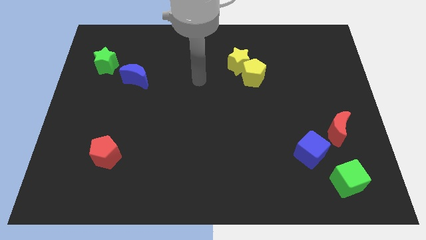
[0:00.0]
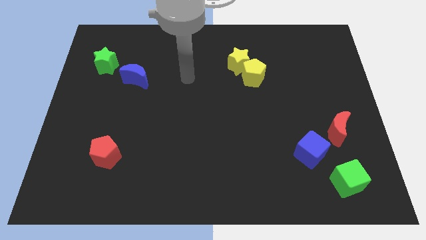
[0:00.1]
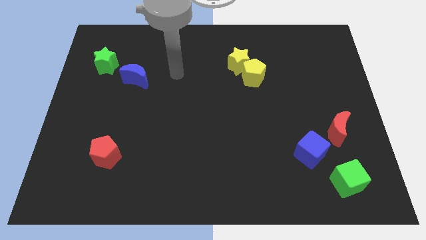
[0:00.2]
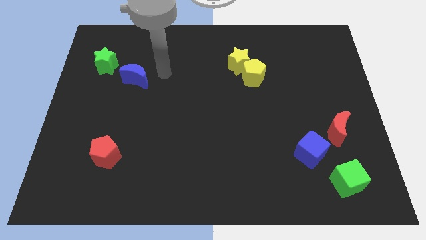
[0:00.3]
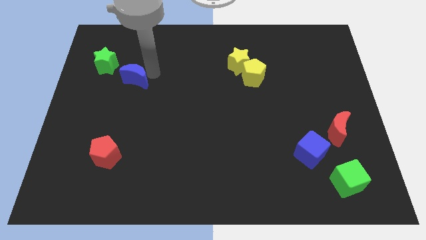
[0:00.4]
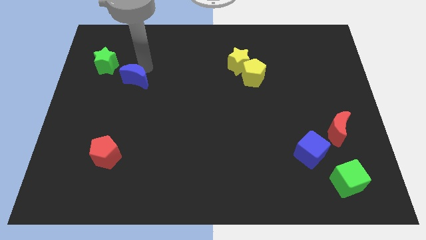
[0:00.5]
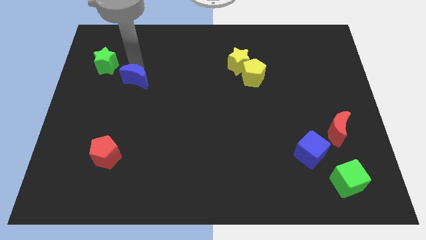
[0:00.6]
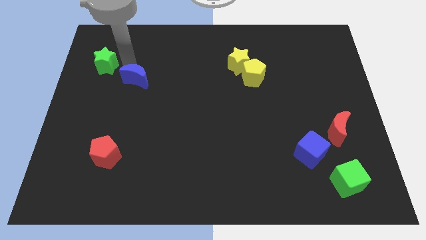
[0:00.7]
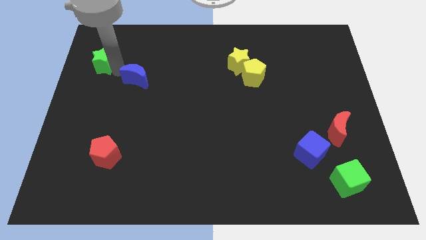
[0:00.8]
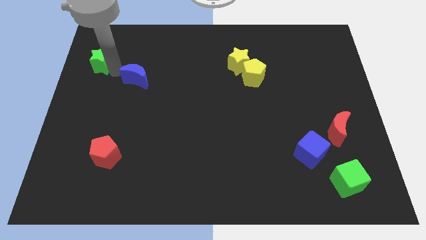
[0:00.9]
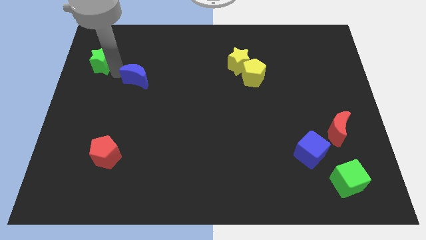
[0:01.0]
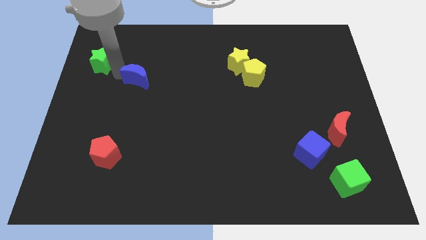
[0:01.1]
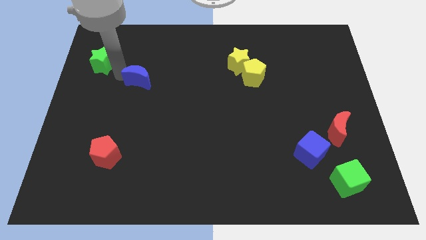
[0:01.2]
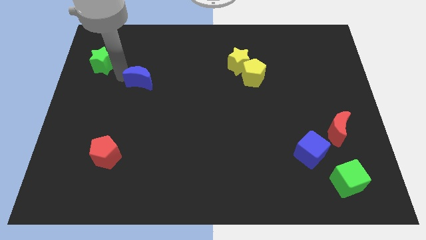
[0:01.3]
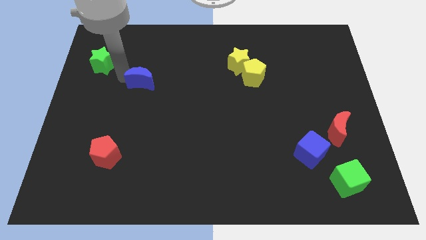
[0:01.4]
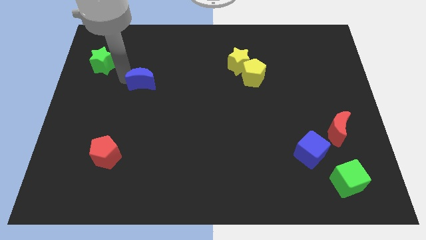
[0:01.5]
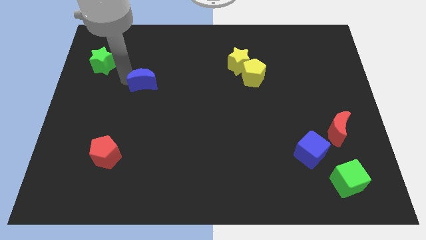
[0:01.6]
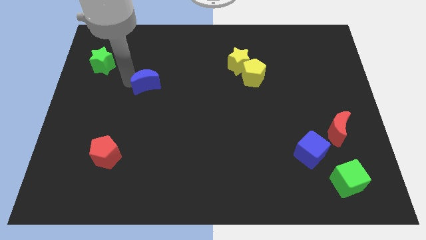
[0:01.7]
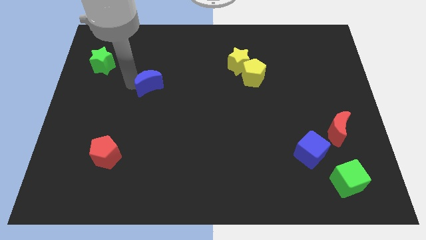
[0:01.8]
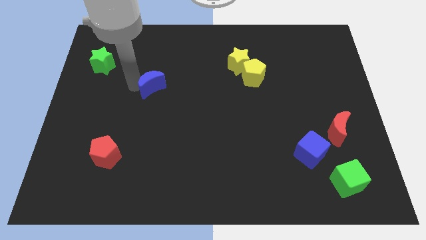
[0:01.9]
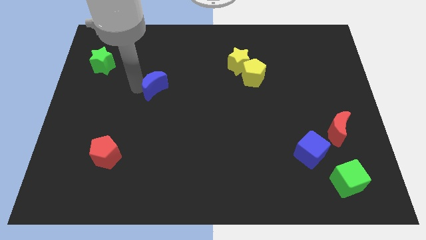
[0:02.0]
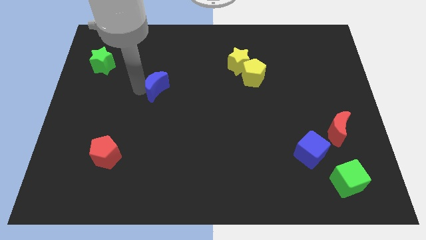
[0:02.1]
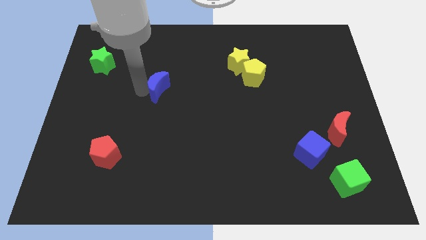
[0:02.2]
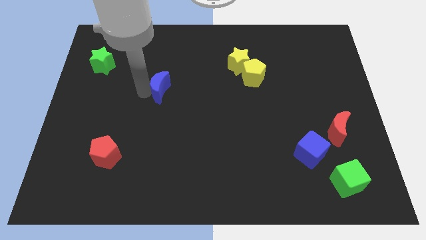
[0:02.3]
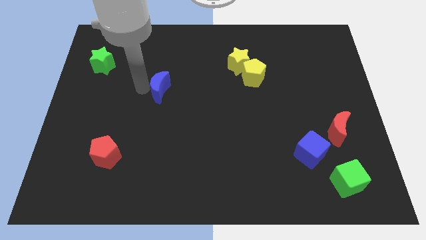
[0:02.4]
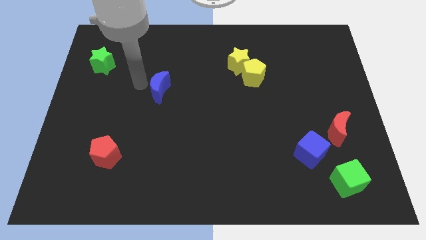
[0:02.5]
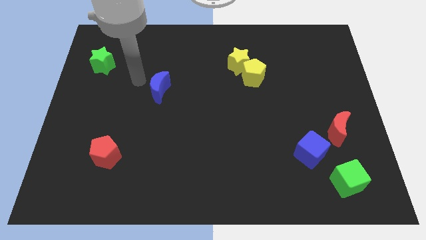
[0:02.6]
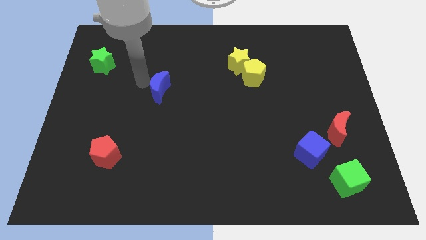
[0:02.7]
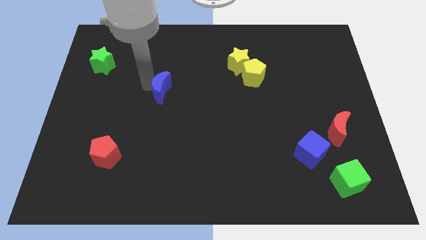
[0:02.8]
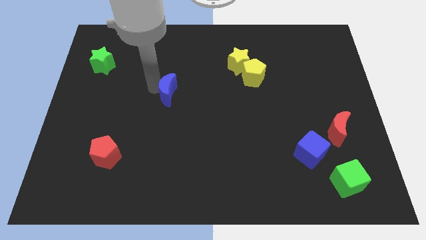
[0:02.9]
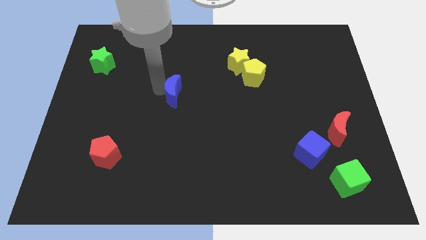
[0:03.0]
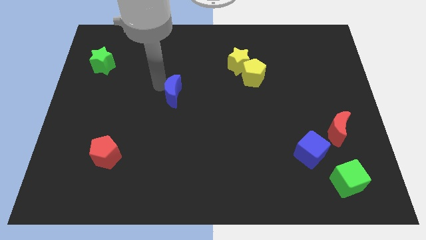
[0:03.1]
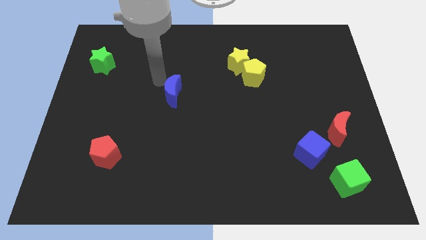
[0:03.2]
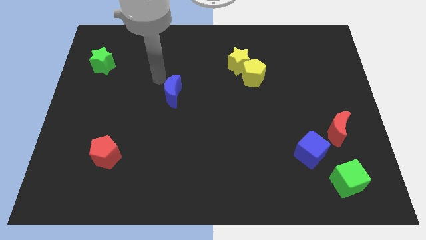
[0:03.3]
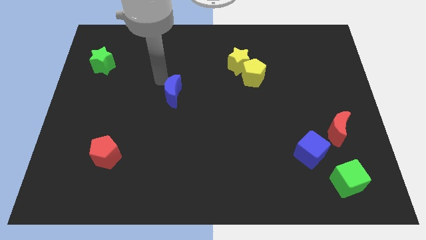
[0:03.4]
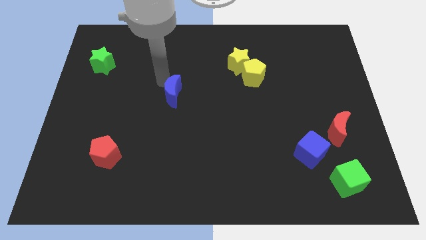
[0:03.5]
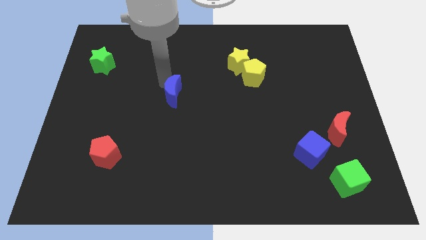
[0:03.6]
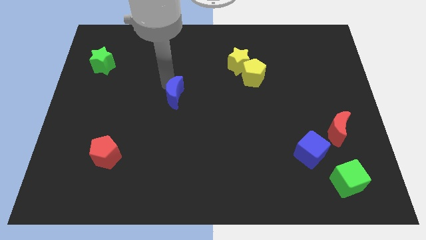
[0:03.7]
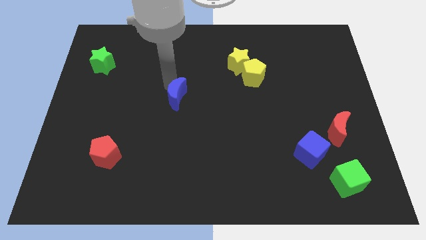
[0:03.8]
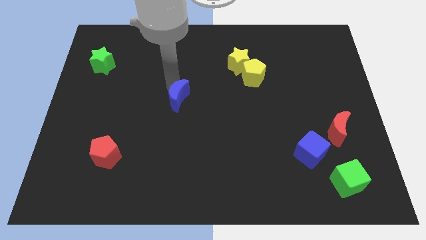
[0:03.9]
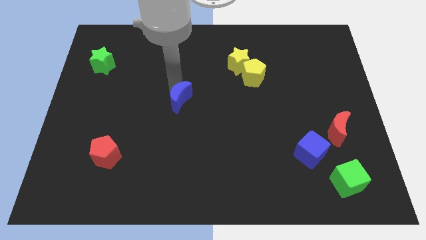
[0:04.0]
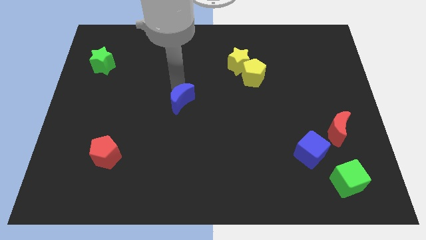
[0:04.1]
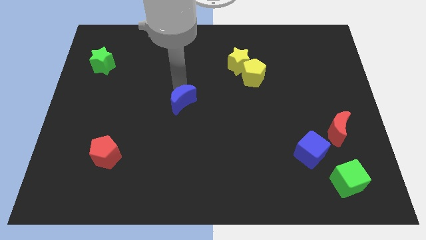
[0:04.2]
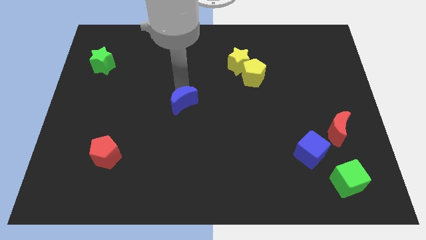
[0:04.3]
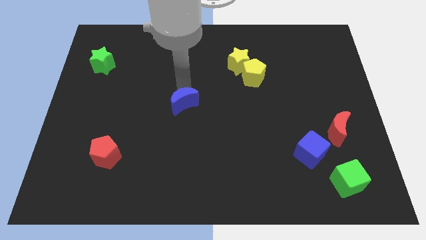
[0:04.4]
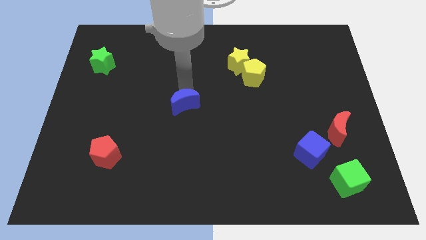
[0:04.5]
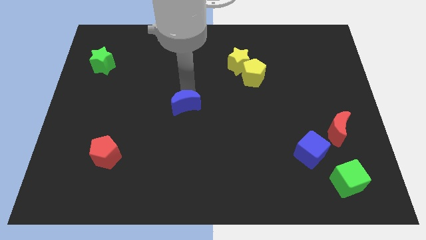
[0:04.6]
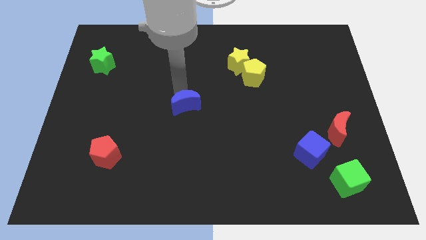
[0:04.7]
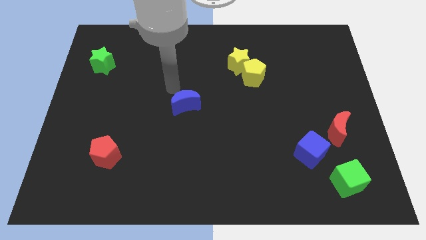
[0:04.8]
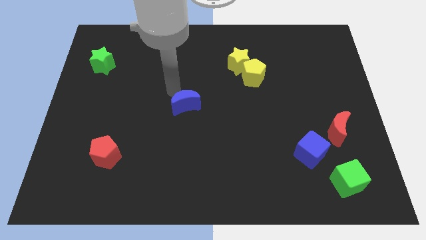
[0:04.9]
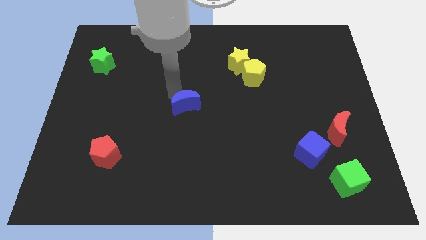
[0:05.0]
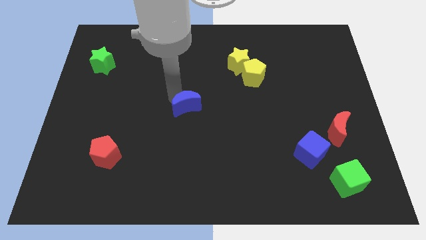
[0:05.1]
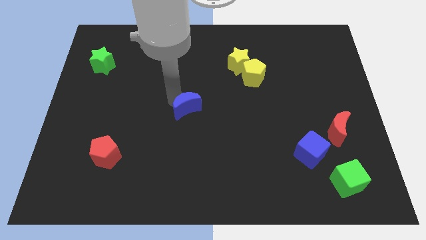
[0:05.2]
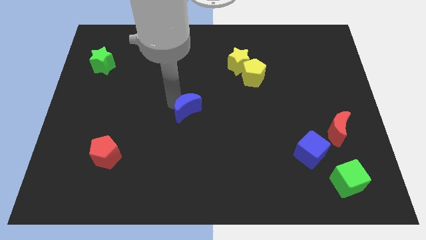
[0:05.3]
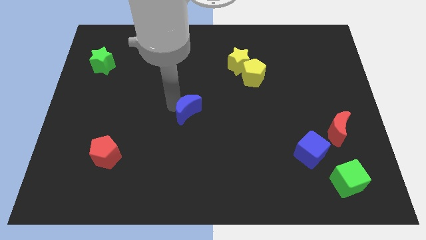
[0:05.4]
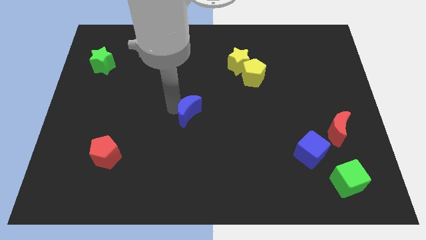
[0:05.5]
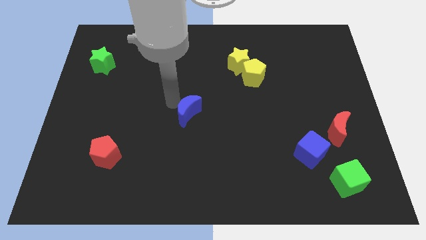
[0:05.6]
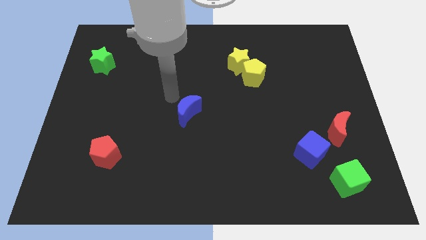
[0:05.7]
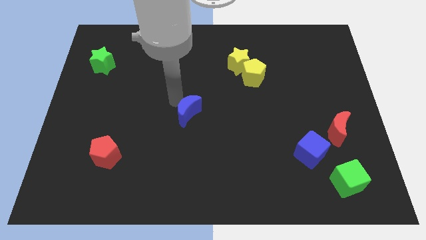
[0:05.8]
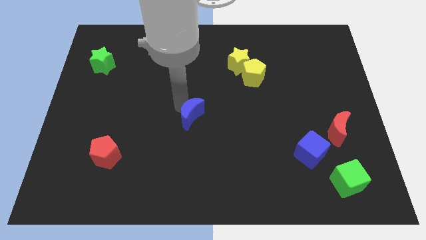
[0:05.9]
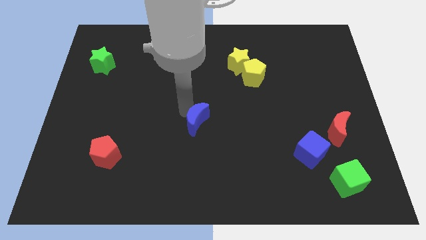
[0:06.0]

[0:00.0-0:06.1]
push the blue moon downwards and then right

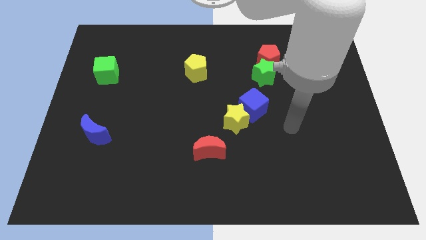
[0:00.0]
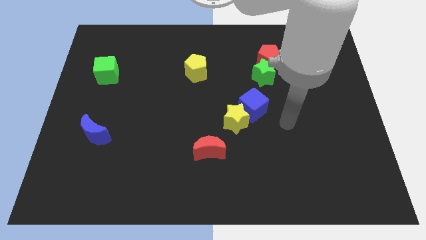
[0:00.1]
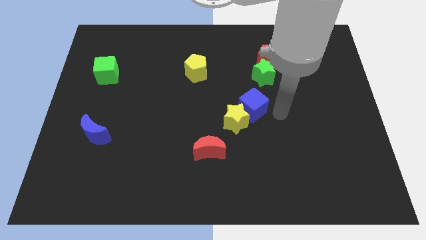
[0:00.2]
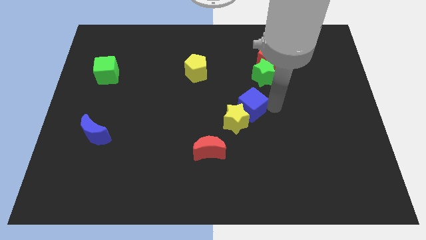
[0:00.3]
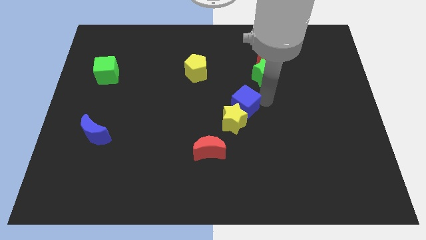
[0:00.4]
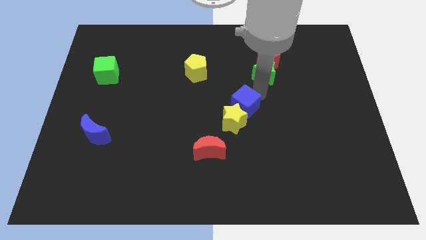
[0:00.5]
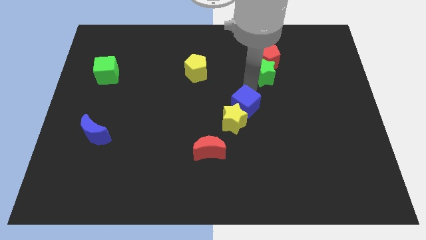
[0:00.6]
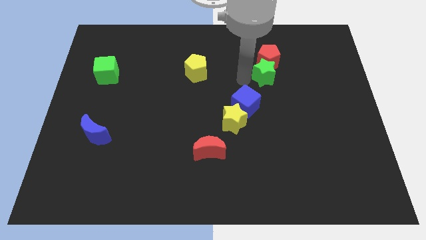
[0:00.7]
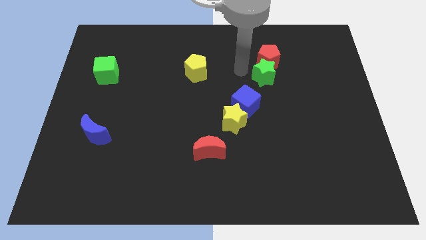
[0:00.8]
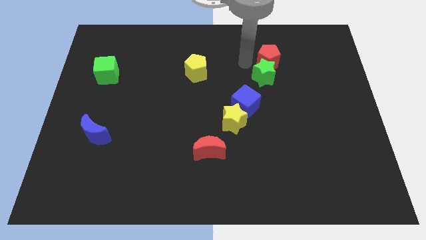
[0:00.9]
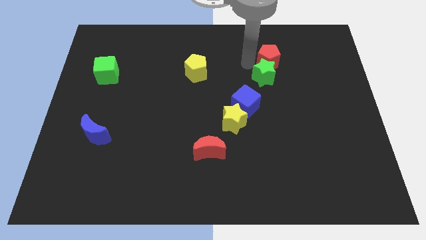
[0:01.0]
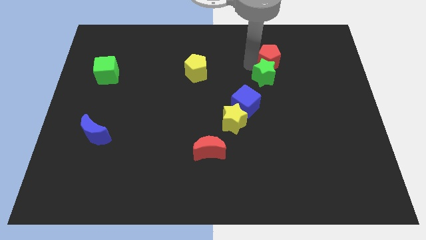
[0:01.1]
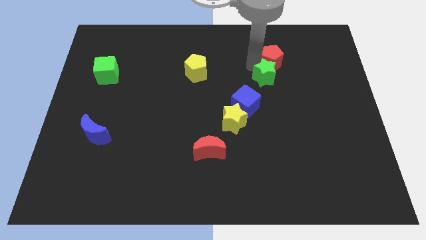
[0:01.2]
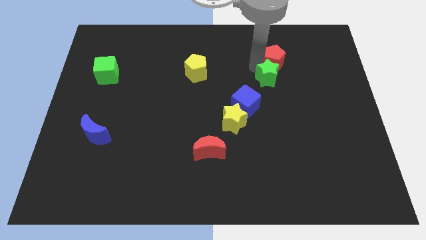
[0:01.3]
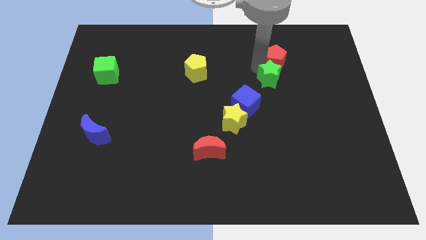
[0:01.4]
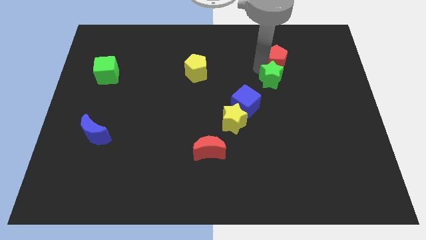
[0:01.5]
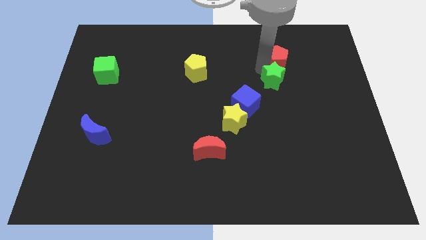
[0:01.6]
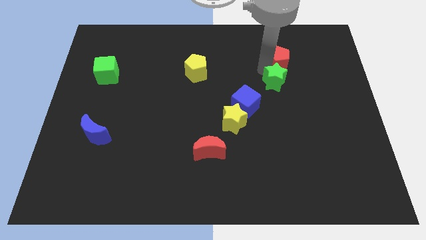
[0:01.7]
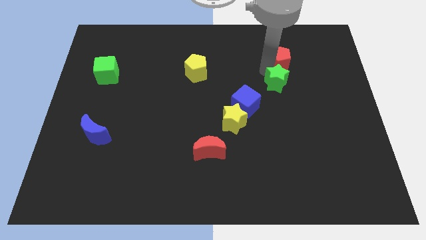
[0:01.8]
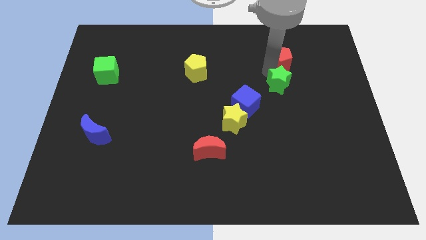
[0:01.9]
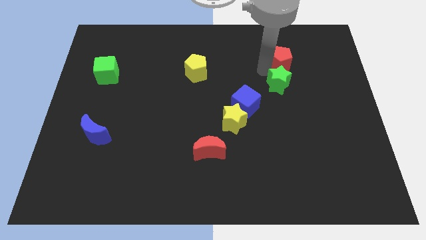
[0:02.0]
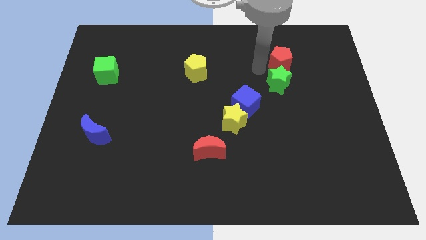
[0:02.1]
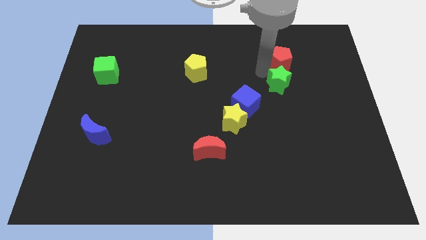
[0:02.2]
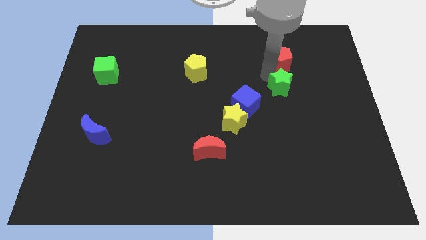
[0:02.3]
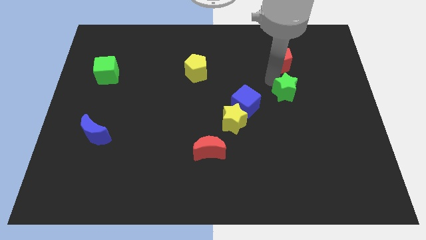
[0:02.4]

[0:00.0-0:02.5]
slightly push the green star diagonally downwards and right
